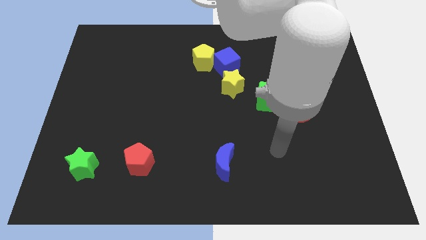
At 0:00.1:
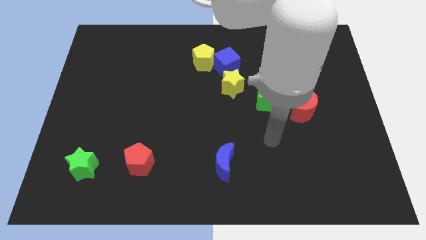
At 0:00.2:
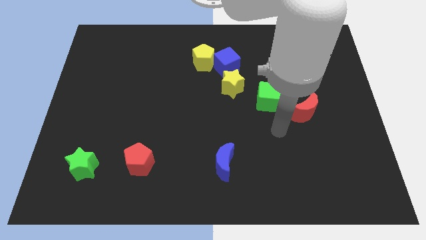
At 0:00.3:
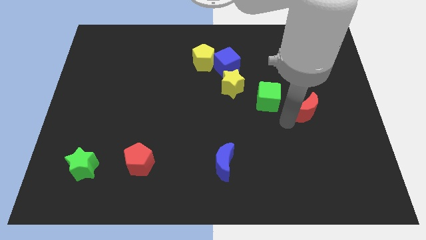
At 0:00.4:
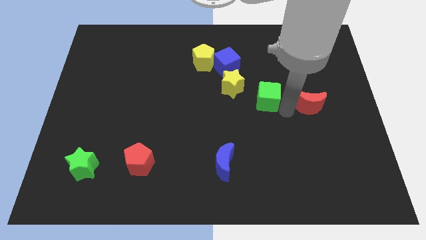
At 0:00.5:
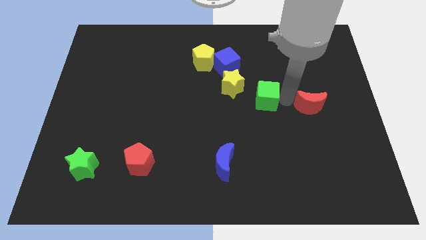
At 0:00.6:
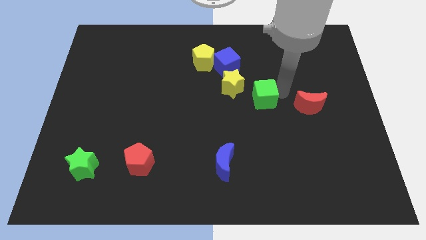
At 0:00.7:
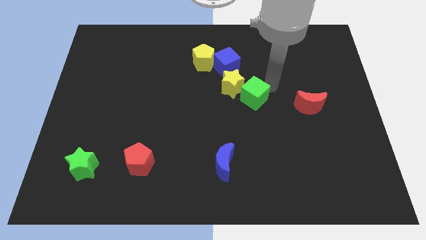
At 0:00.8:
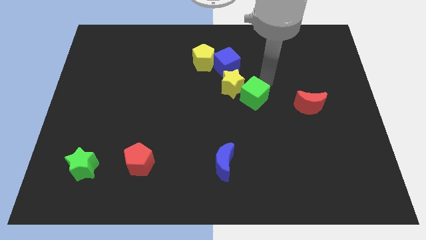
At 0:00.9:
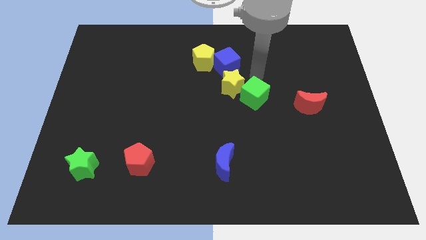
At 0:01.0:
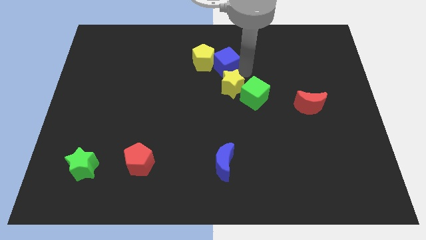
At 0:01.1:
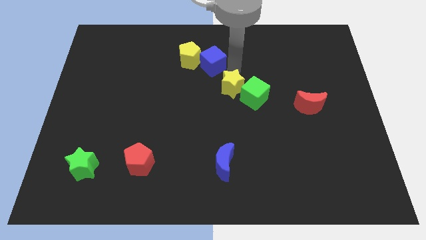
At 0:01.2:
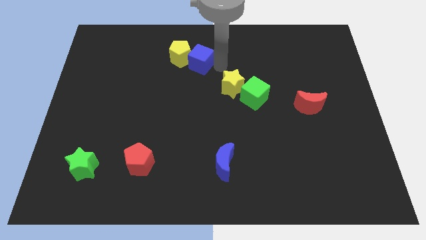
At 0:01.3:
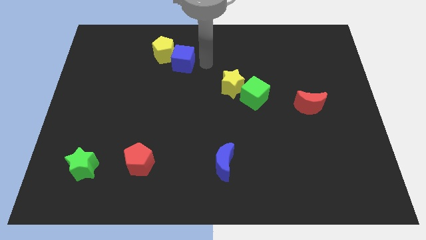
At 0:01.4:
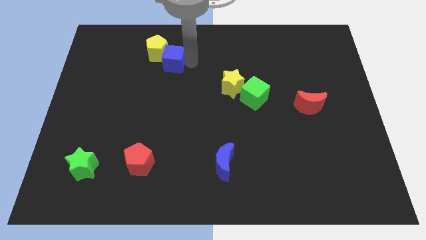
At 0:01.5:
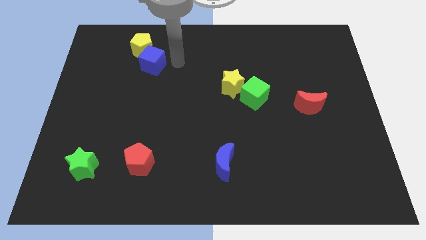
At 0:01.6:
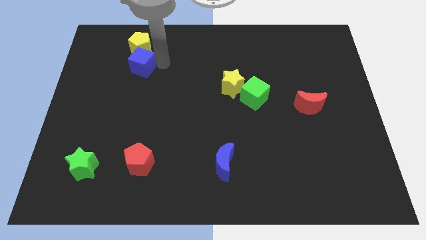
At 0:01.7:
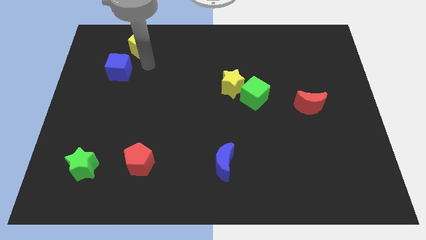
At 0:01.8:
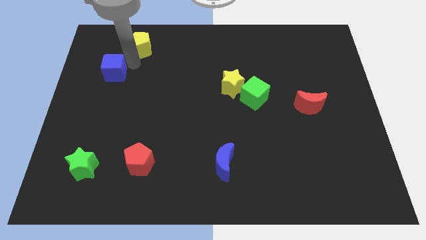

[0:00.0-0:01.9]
move the yellow pentagon away from the blue cube

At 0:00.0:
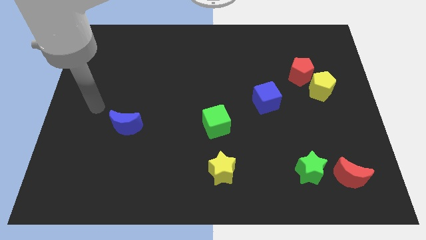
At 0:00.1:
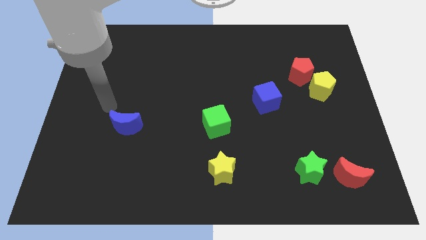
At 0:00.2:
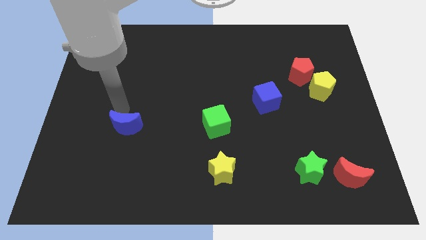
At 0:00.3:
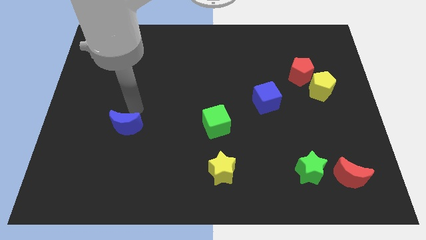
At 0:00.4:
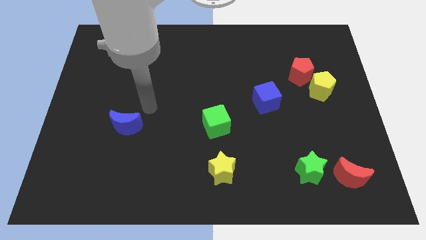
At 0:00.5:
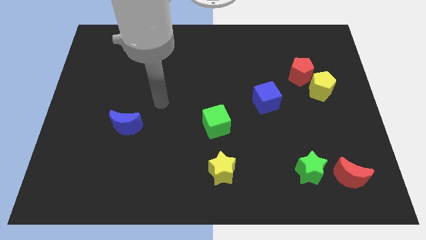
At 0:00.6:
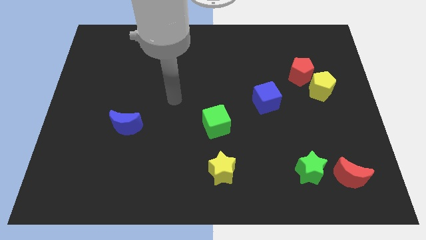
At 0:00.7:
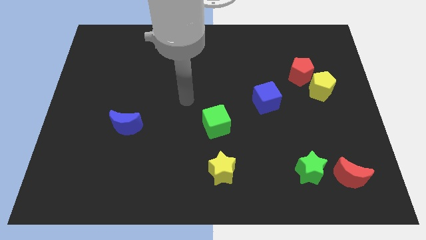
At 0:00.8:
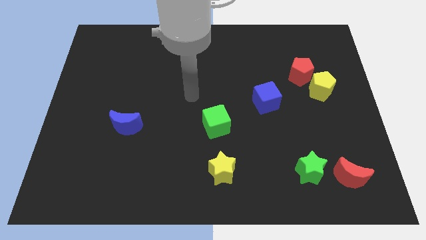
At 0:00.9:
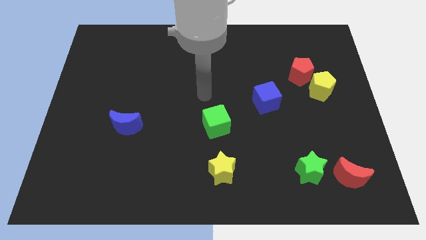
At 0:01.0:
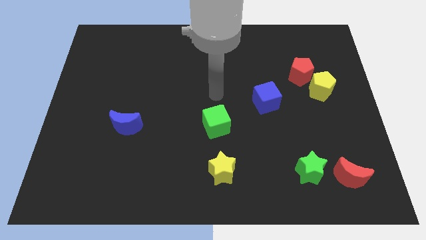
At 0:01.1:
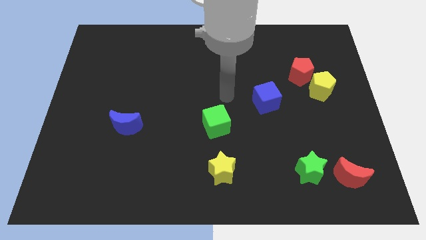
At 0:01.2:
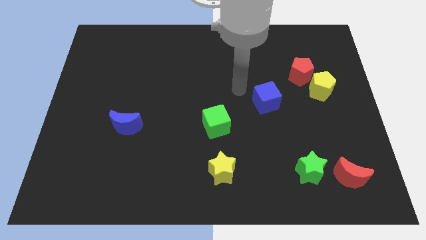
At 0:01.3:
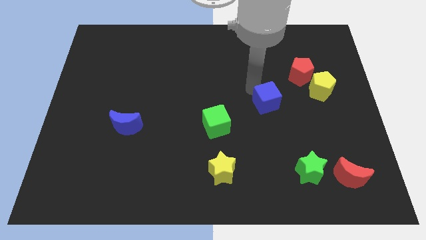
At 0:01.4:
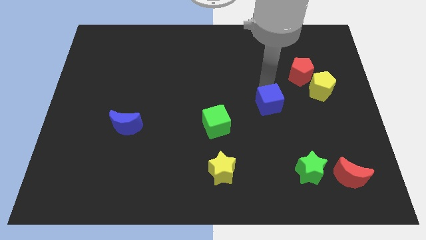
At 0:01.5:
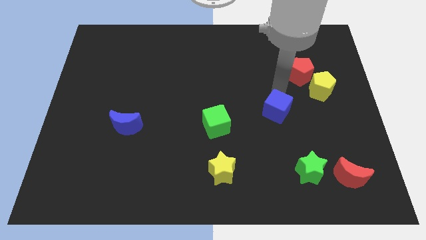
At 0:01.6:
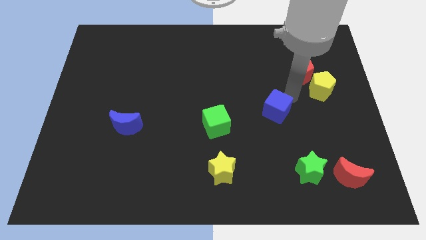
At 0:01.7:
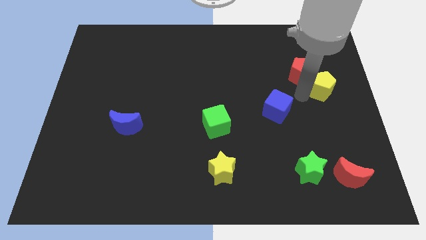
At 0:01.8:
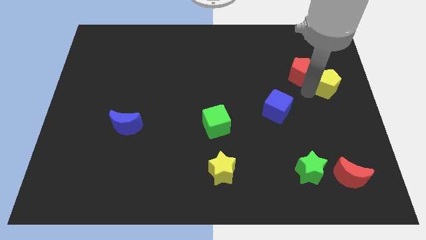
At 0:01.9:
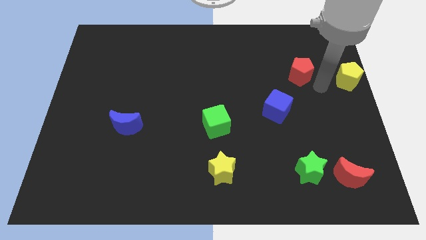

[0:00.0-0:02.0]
pull the red pentagon apart from the yellow pentagon

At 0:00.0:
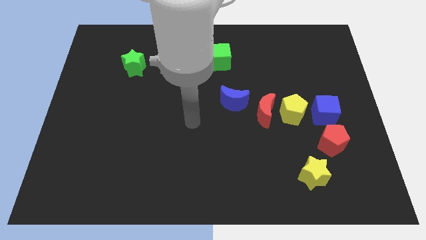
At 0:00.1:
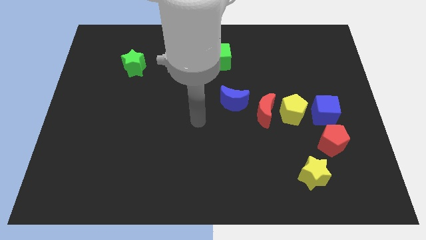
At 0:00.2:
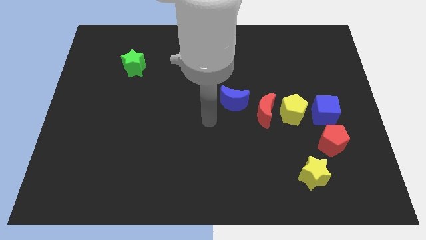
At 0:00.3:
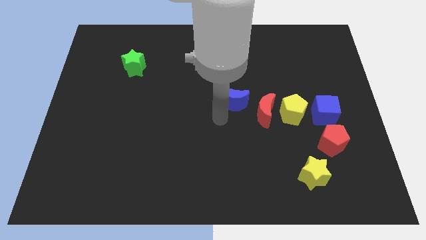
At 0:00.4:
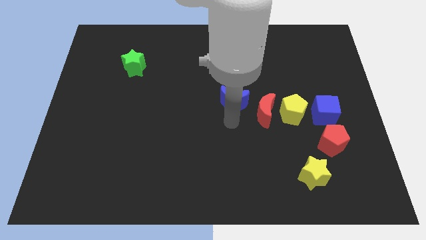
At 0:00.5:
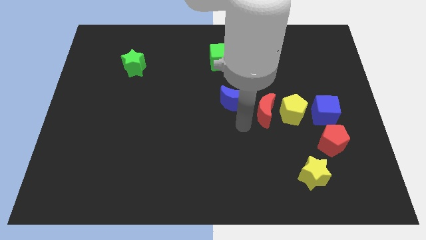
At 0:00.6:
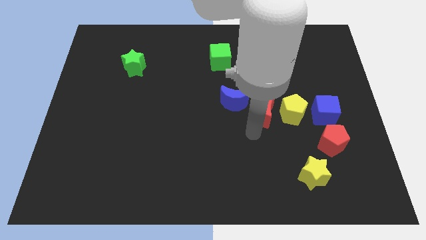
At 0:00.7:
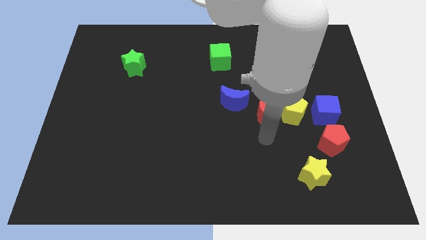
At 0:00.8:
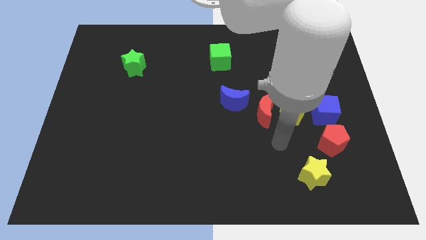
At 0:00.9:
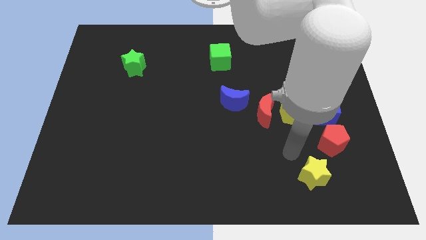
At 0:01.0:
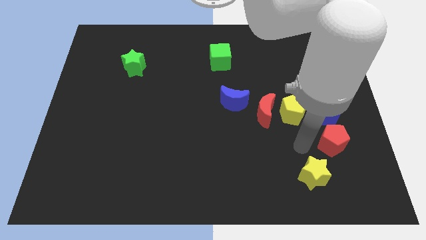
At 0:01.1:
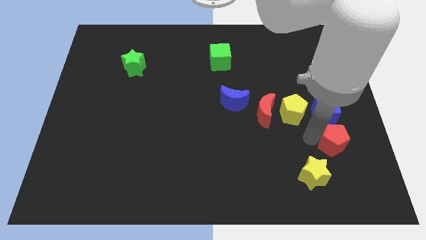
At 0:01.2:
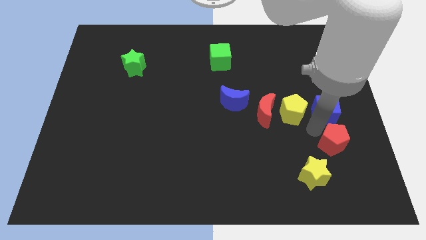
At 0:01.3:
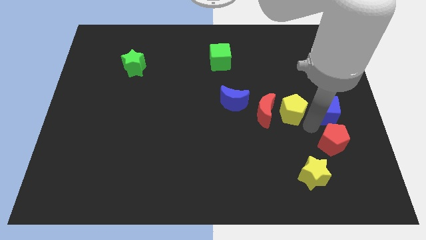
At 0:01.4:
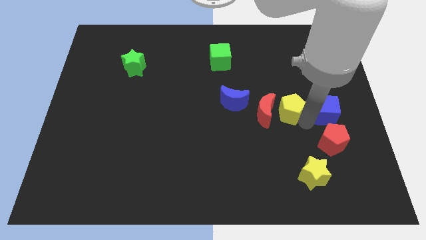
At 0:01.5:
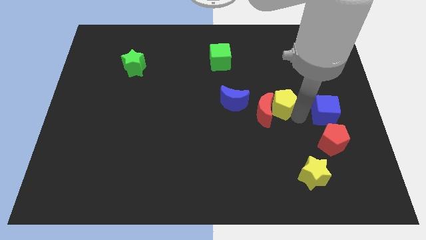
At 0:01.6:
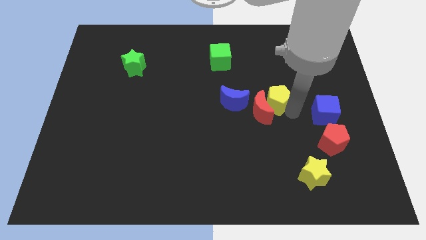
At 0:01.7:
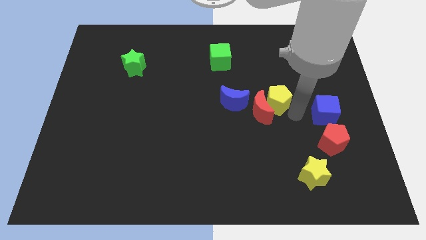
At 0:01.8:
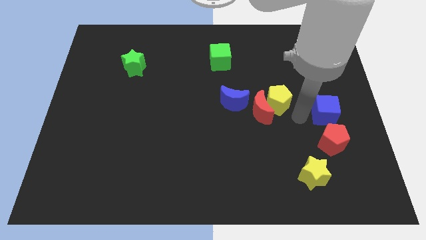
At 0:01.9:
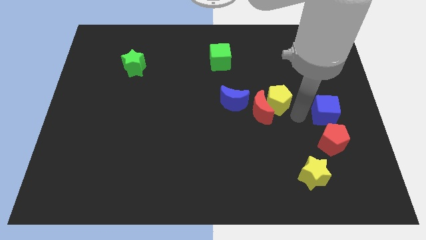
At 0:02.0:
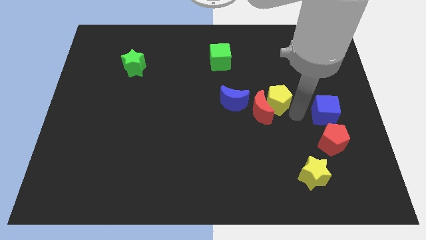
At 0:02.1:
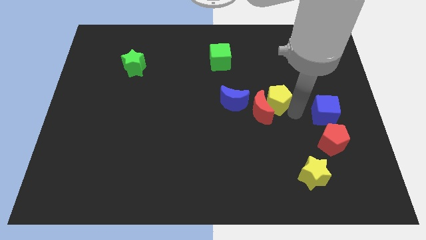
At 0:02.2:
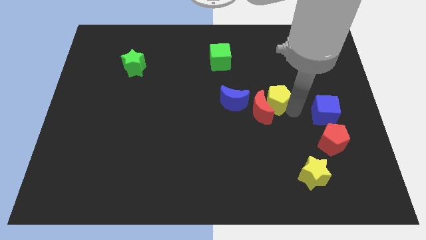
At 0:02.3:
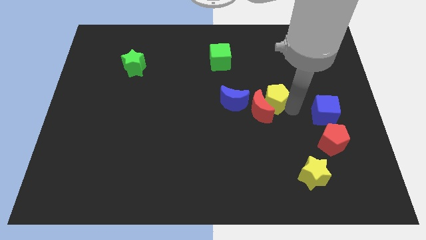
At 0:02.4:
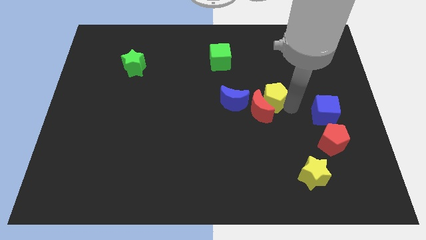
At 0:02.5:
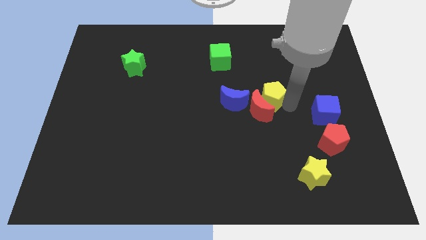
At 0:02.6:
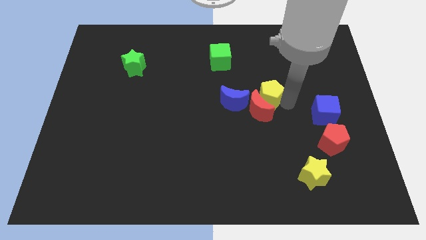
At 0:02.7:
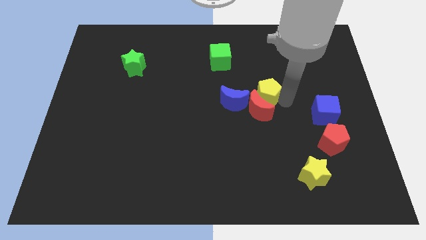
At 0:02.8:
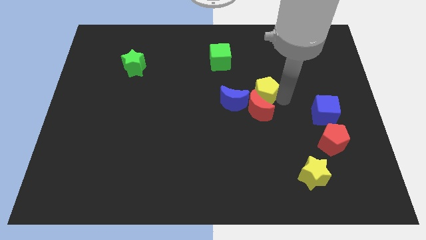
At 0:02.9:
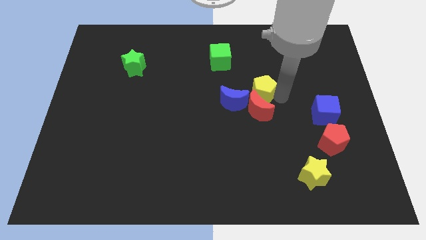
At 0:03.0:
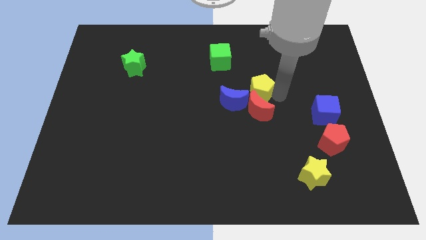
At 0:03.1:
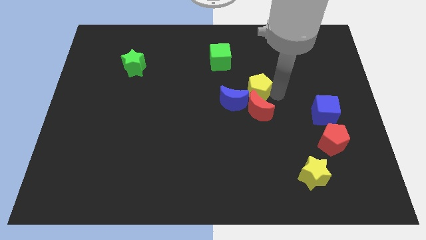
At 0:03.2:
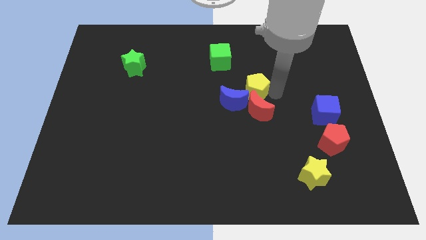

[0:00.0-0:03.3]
move the yellow pentagon away from the red moon and blue cube

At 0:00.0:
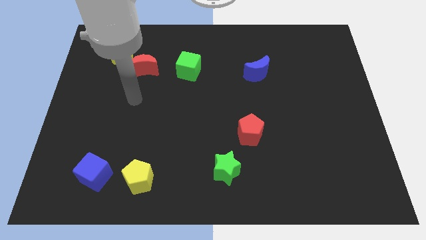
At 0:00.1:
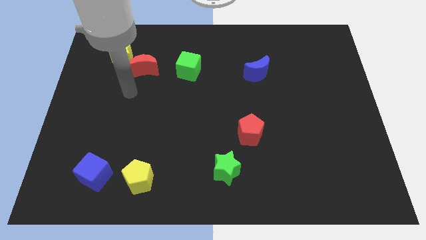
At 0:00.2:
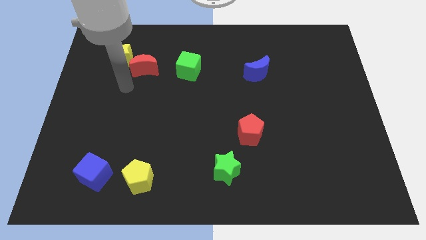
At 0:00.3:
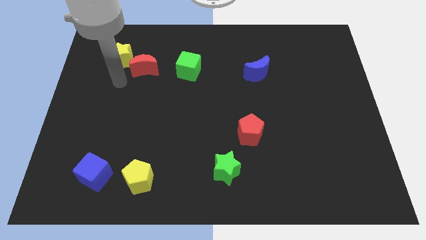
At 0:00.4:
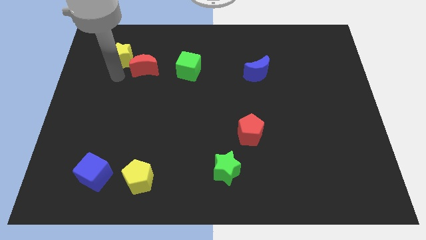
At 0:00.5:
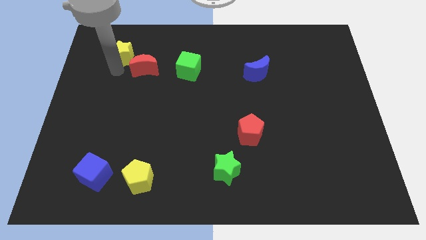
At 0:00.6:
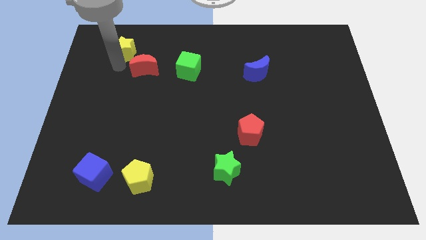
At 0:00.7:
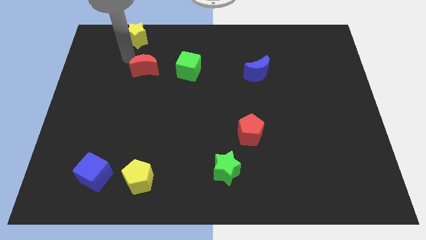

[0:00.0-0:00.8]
move the red moon away from the yellow star

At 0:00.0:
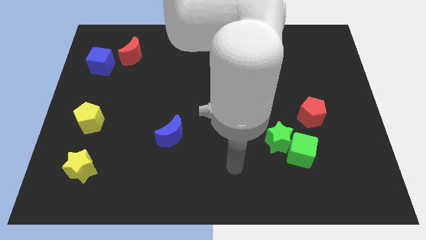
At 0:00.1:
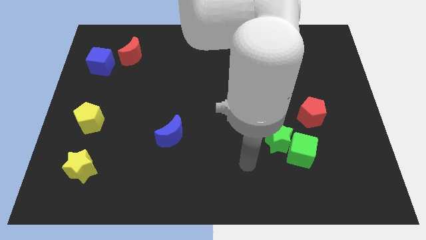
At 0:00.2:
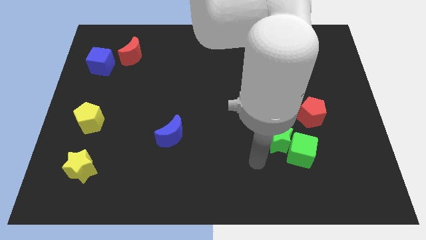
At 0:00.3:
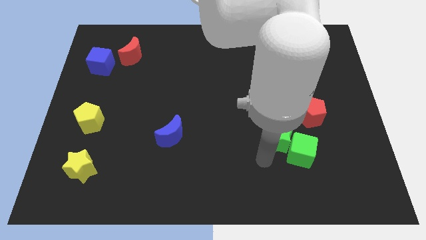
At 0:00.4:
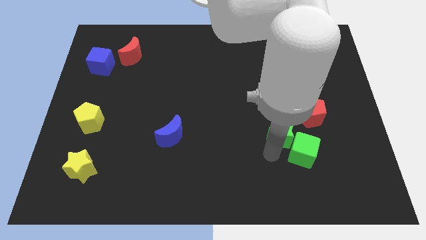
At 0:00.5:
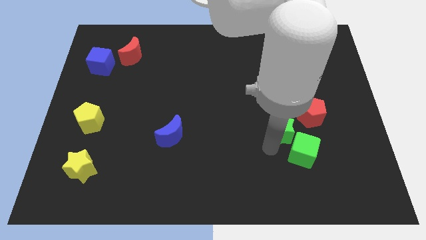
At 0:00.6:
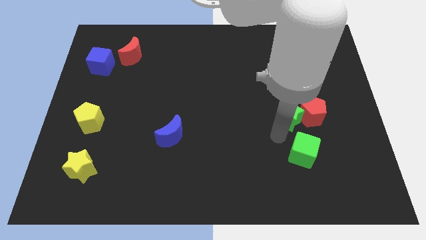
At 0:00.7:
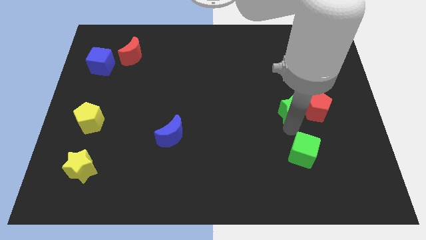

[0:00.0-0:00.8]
separate the green cube from the green star

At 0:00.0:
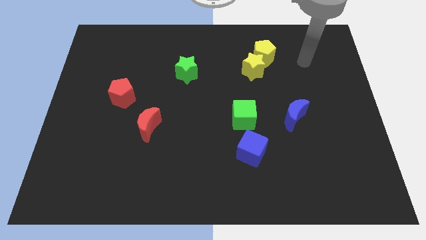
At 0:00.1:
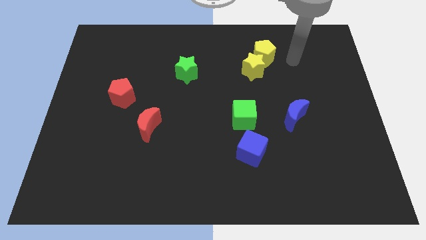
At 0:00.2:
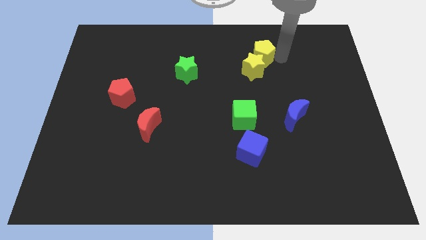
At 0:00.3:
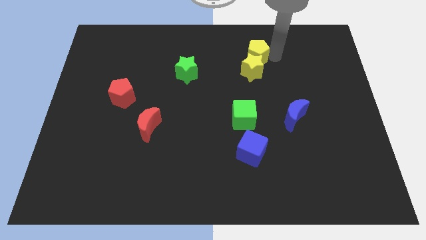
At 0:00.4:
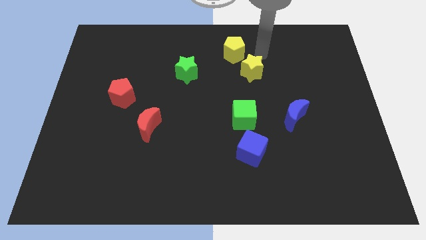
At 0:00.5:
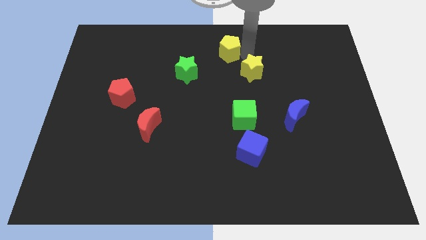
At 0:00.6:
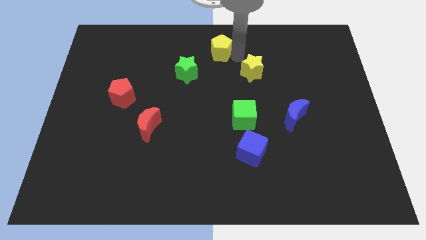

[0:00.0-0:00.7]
separate the yellow star from the yellow pentagon
